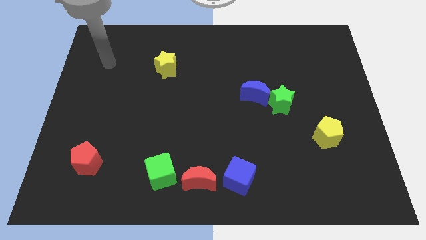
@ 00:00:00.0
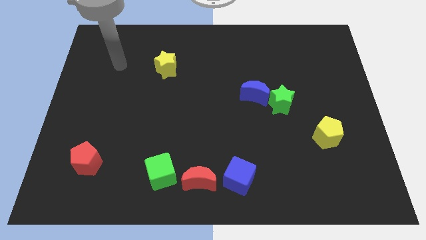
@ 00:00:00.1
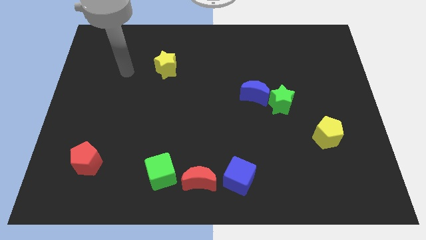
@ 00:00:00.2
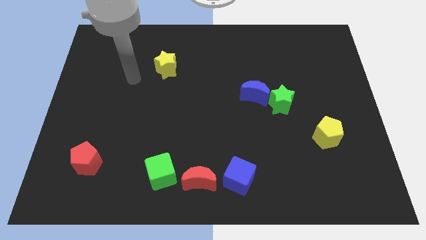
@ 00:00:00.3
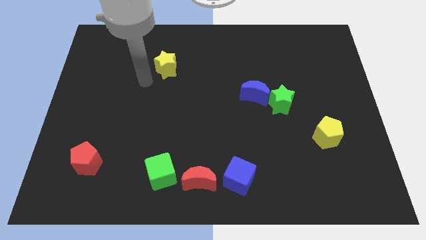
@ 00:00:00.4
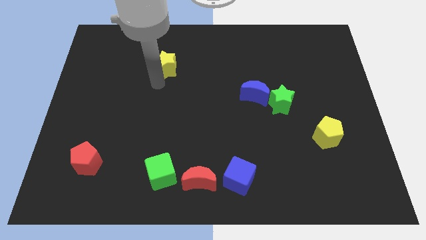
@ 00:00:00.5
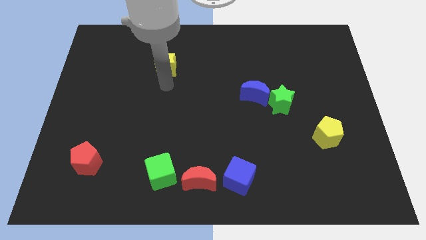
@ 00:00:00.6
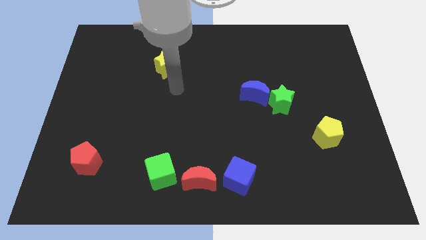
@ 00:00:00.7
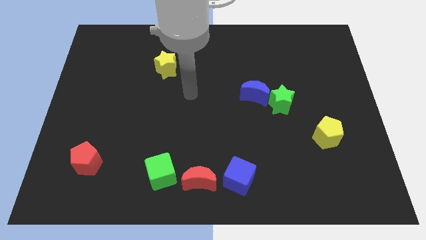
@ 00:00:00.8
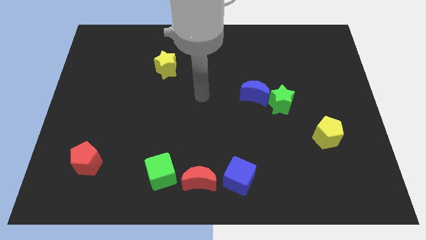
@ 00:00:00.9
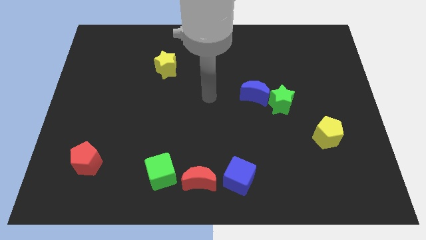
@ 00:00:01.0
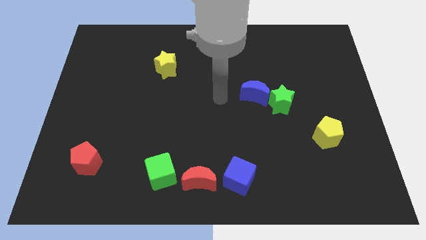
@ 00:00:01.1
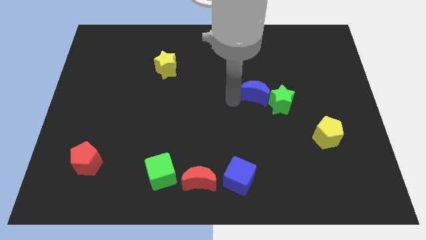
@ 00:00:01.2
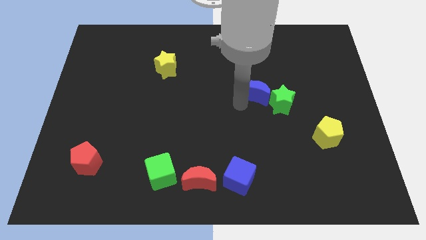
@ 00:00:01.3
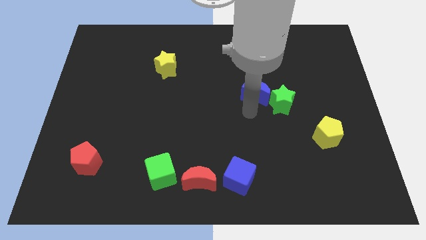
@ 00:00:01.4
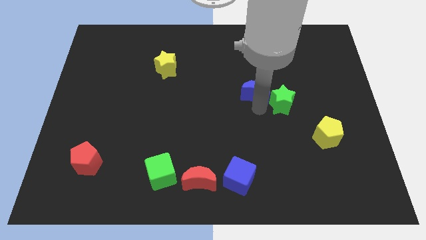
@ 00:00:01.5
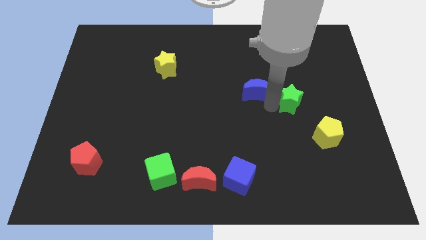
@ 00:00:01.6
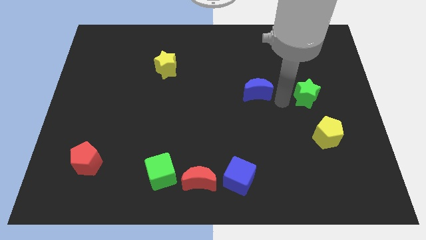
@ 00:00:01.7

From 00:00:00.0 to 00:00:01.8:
move the blue moon away from the green star

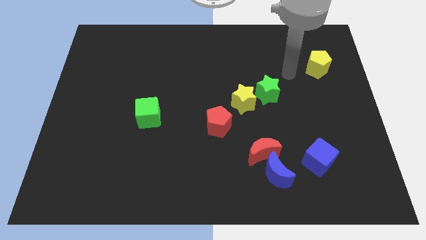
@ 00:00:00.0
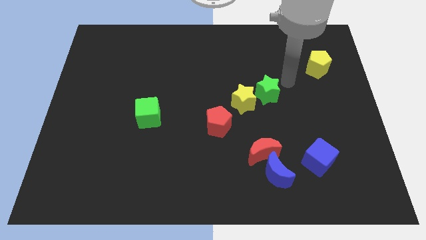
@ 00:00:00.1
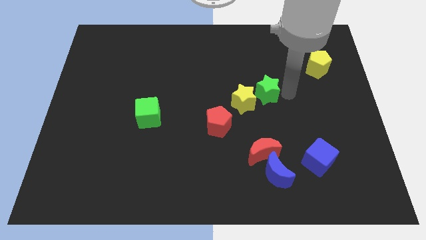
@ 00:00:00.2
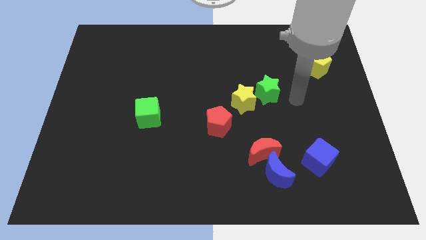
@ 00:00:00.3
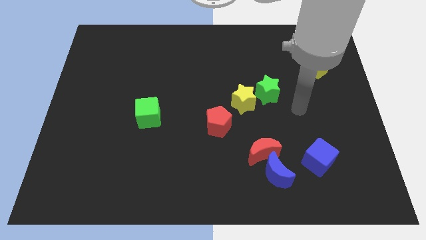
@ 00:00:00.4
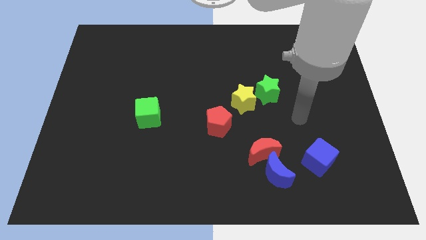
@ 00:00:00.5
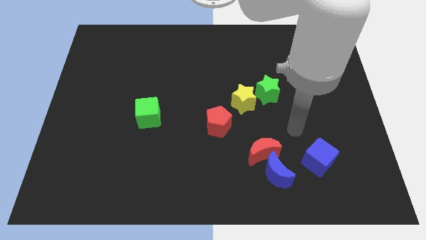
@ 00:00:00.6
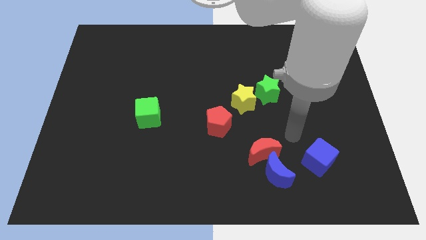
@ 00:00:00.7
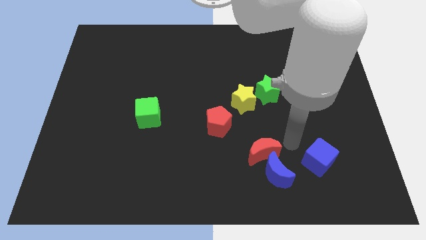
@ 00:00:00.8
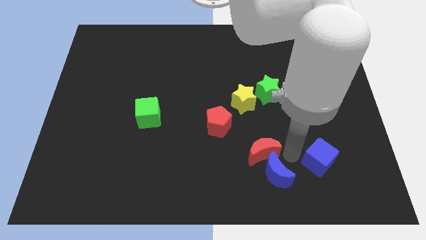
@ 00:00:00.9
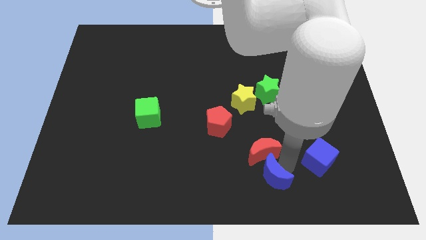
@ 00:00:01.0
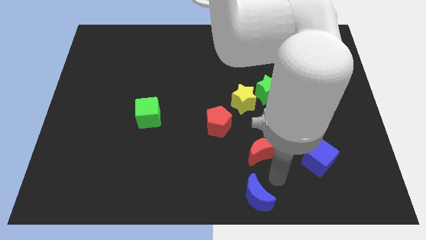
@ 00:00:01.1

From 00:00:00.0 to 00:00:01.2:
pull the red moon apart from the blue moon

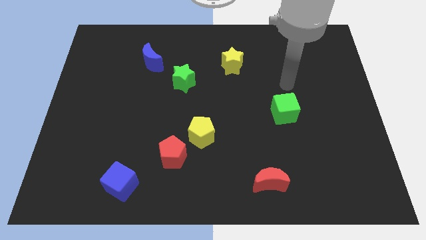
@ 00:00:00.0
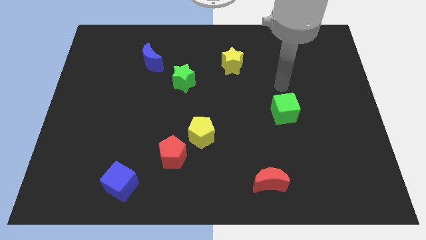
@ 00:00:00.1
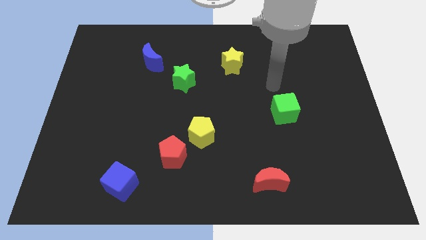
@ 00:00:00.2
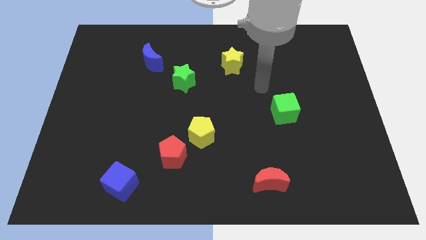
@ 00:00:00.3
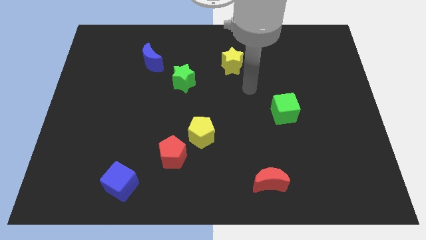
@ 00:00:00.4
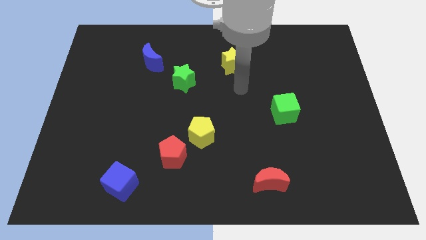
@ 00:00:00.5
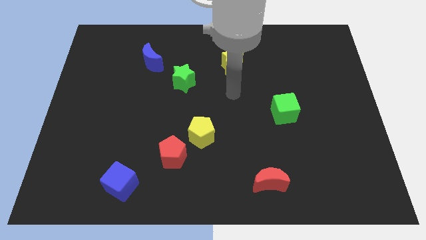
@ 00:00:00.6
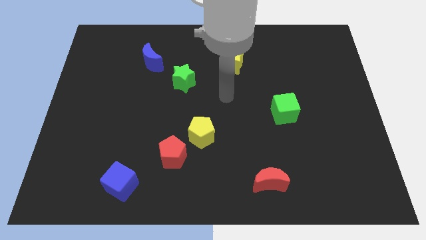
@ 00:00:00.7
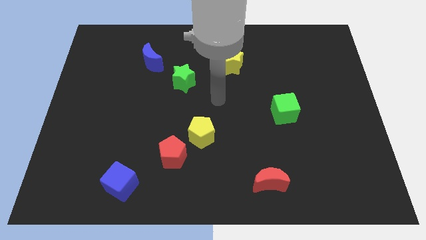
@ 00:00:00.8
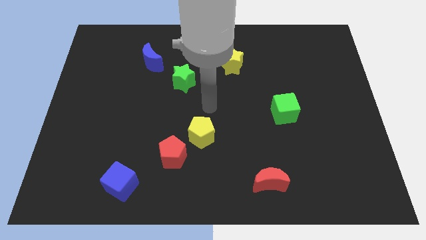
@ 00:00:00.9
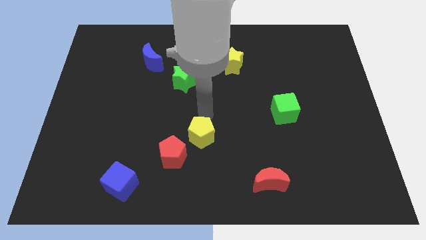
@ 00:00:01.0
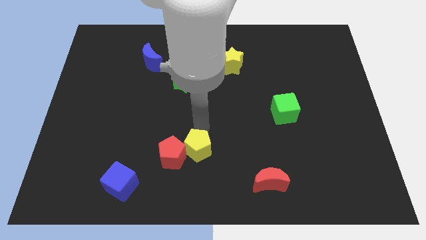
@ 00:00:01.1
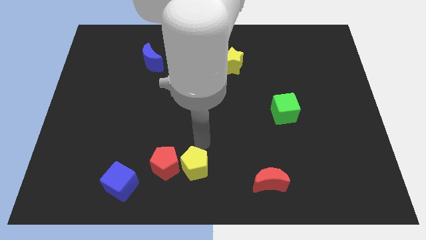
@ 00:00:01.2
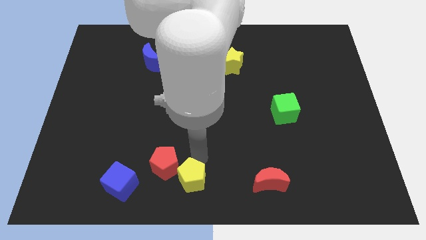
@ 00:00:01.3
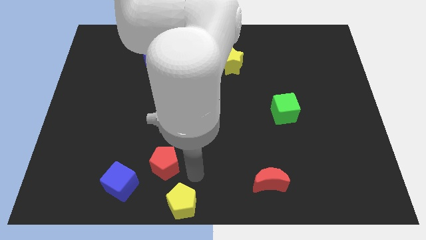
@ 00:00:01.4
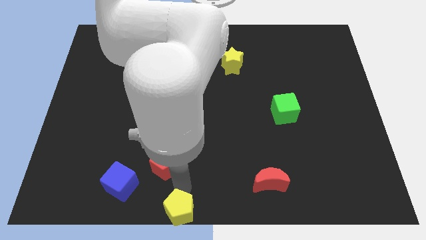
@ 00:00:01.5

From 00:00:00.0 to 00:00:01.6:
pull the red pentagon apart from the yellow pentagon

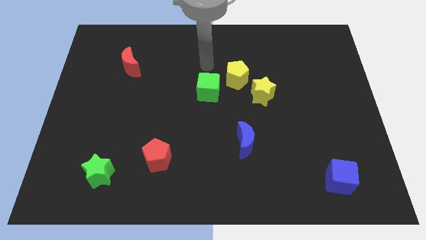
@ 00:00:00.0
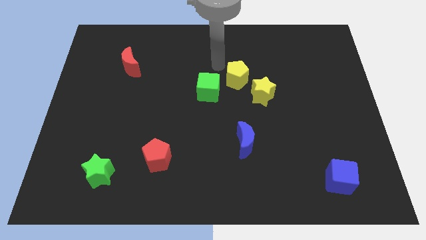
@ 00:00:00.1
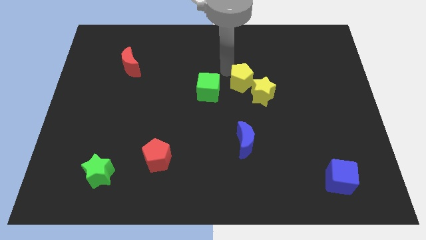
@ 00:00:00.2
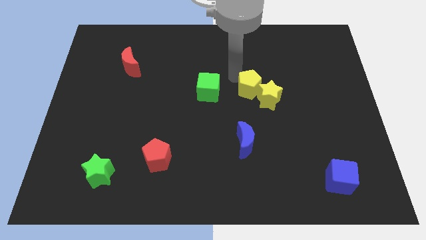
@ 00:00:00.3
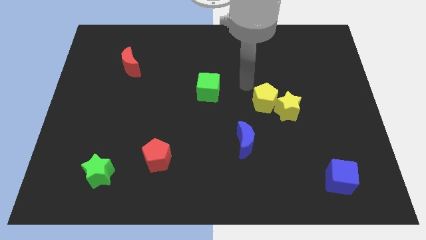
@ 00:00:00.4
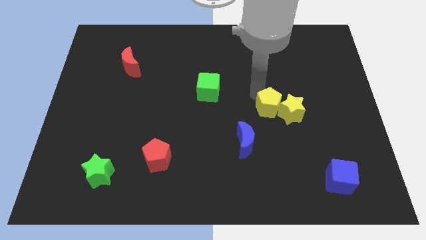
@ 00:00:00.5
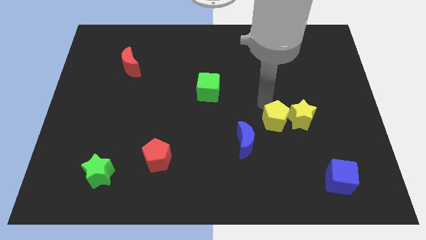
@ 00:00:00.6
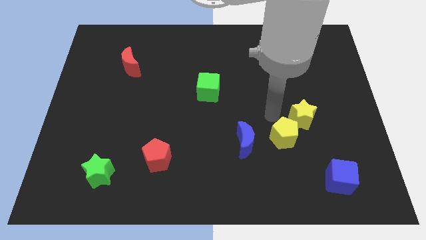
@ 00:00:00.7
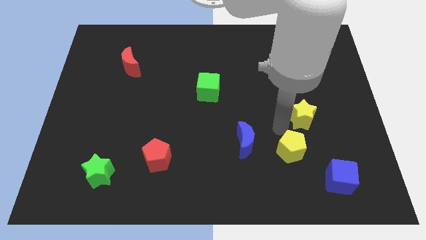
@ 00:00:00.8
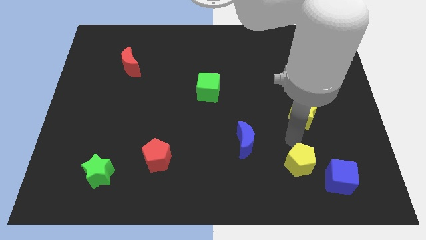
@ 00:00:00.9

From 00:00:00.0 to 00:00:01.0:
pull the yellow star apart from the yellow pentagon

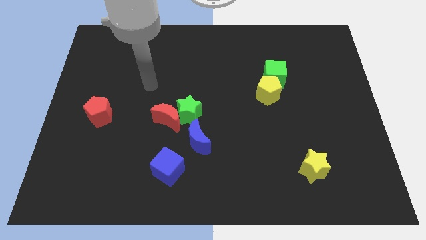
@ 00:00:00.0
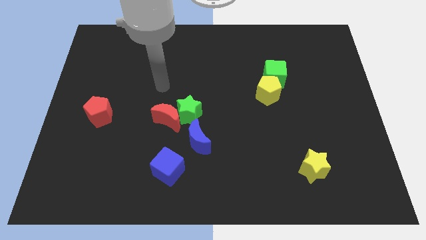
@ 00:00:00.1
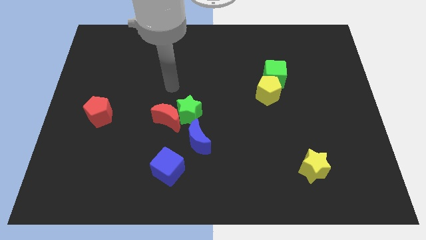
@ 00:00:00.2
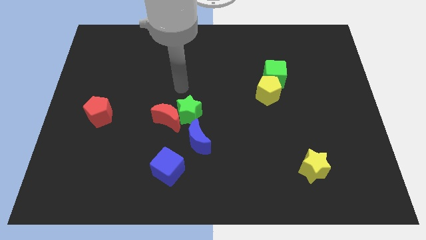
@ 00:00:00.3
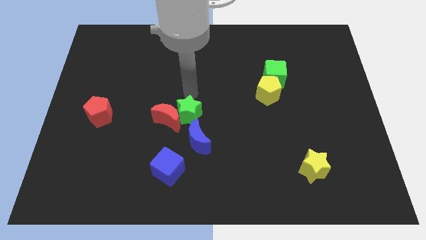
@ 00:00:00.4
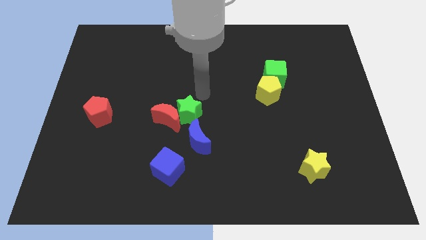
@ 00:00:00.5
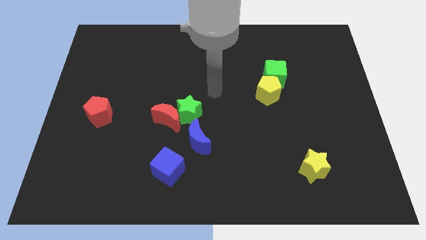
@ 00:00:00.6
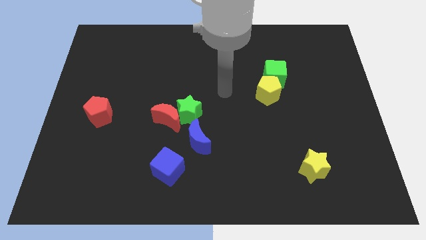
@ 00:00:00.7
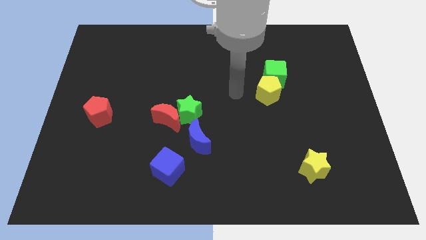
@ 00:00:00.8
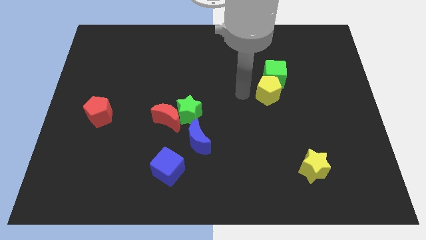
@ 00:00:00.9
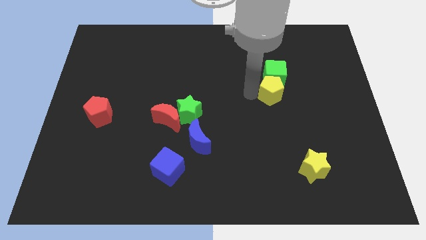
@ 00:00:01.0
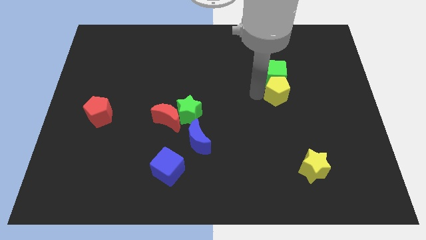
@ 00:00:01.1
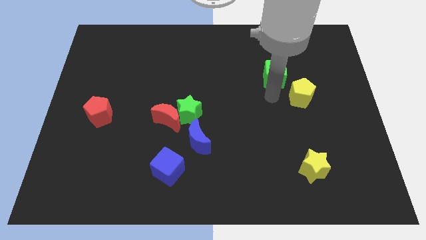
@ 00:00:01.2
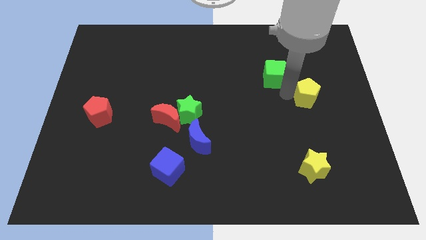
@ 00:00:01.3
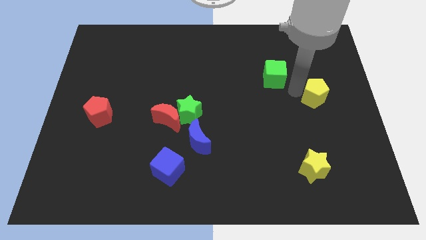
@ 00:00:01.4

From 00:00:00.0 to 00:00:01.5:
pull the green cube apart from the yellow pentagon

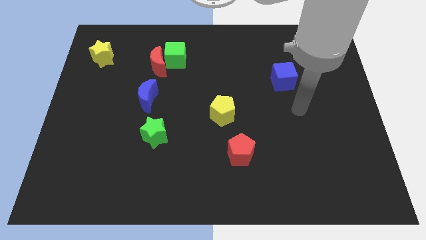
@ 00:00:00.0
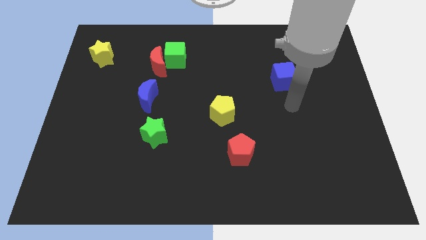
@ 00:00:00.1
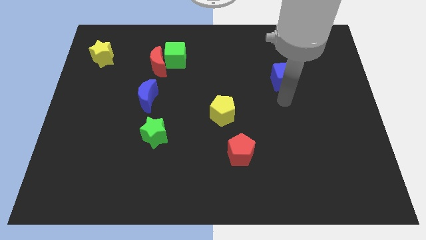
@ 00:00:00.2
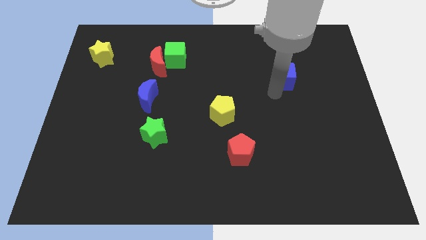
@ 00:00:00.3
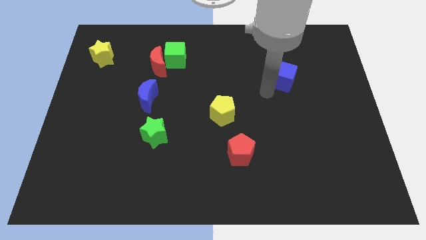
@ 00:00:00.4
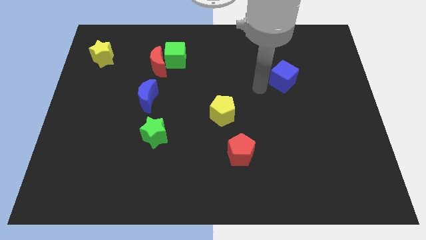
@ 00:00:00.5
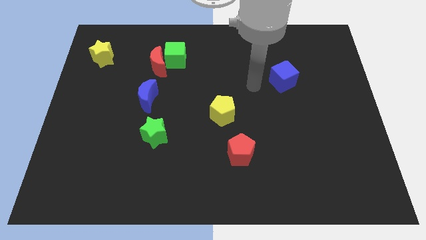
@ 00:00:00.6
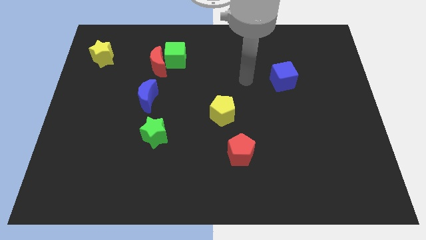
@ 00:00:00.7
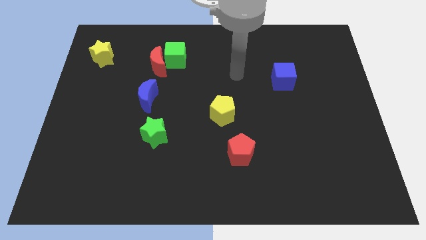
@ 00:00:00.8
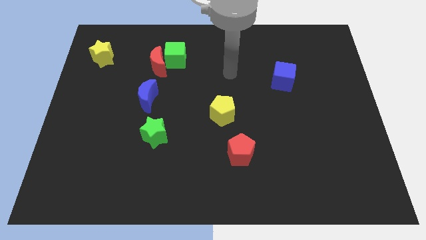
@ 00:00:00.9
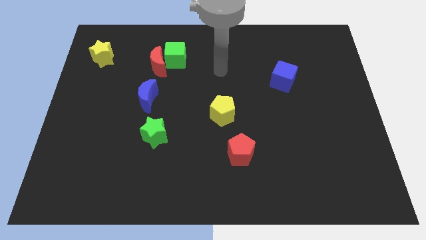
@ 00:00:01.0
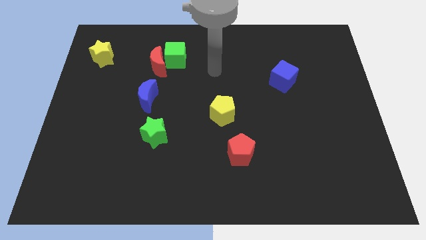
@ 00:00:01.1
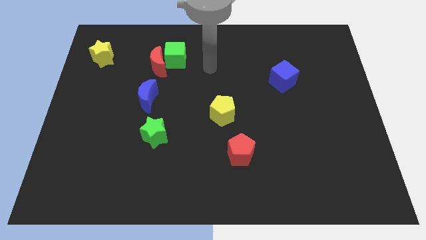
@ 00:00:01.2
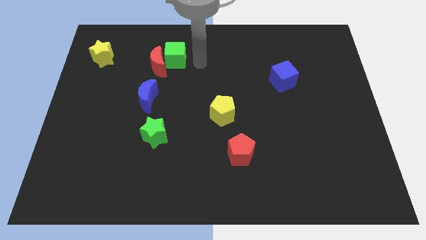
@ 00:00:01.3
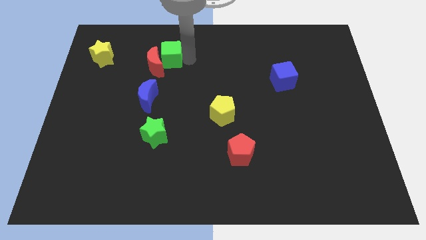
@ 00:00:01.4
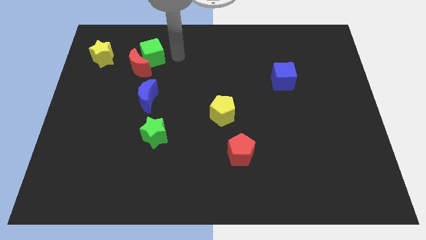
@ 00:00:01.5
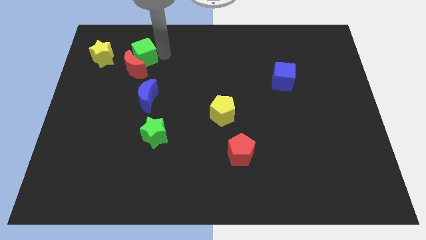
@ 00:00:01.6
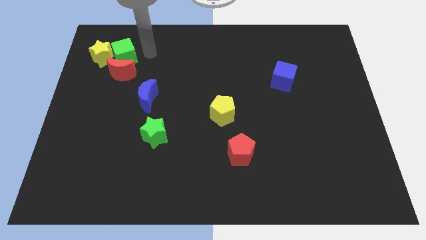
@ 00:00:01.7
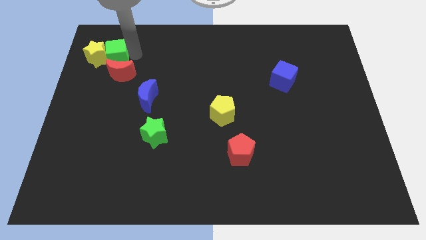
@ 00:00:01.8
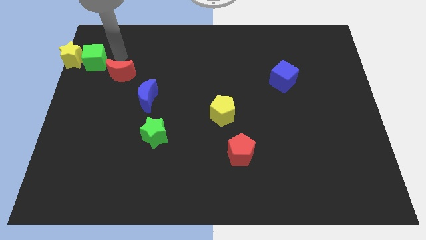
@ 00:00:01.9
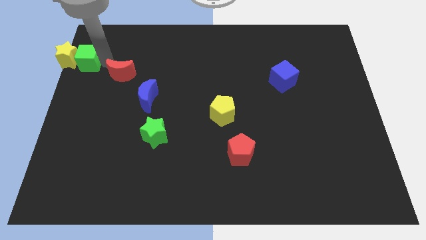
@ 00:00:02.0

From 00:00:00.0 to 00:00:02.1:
pull the red moon apart from the green cube
